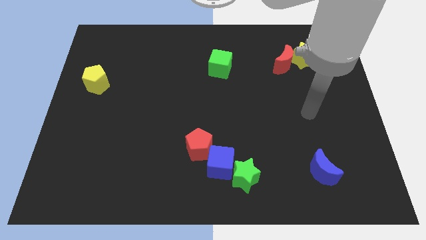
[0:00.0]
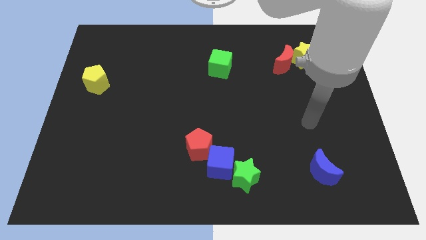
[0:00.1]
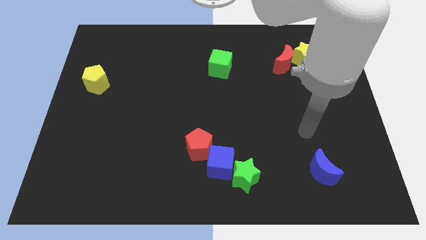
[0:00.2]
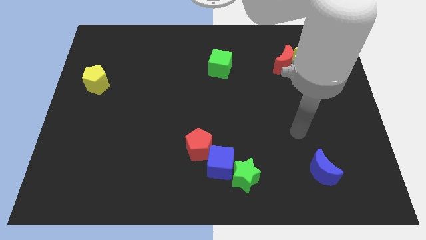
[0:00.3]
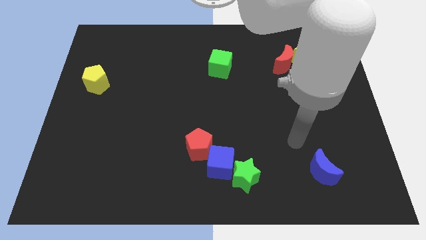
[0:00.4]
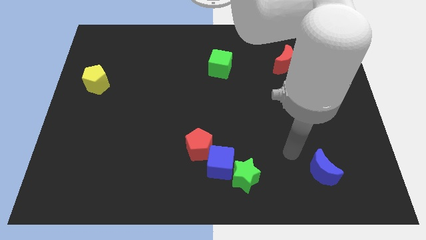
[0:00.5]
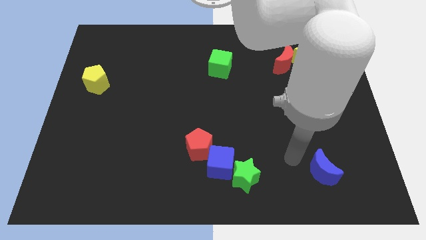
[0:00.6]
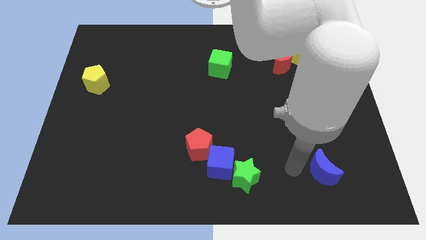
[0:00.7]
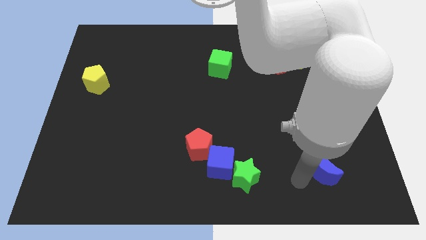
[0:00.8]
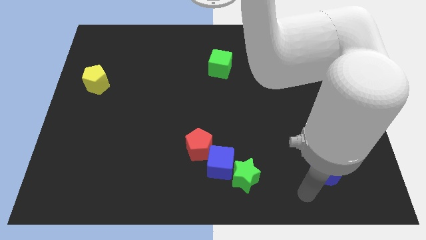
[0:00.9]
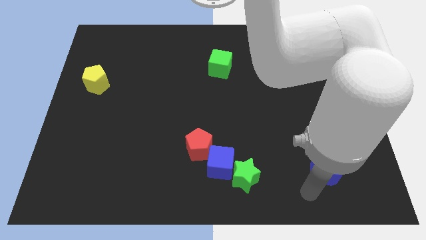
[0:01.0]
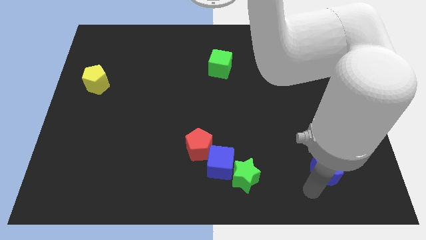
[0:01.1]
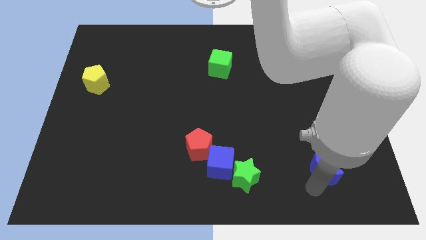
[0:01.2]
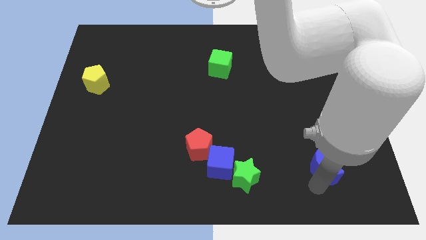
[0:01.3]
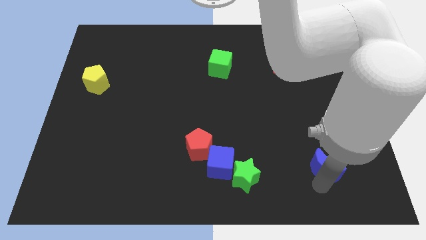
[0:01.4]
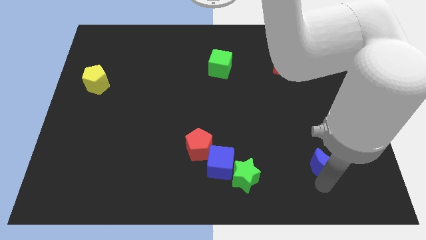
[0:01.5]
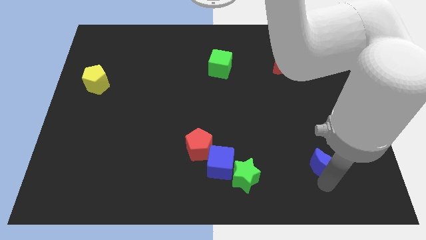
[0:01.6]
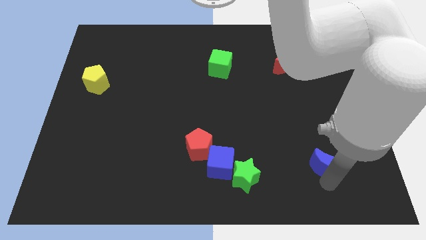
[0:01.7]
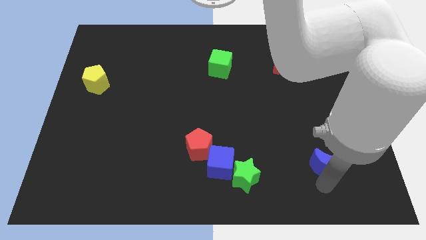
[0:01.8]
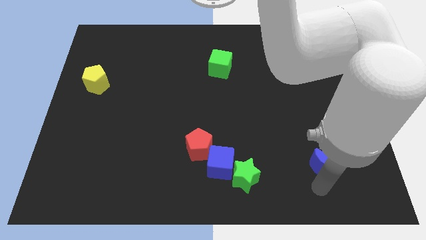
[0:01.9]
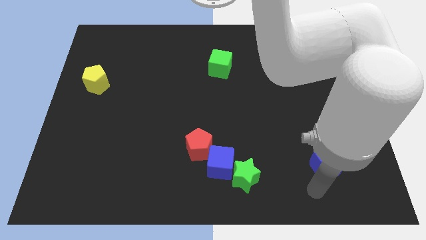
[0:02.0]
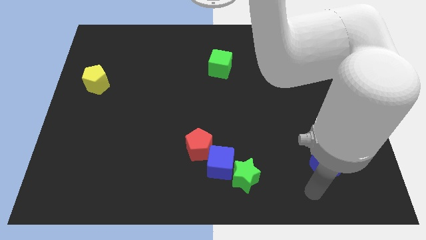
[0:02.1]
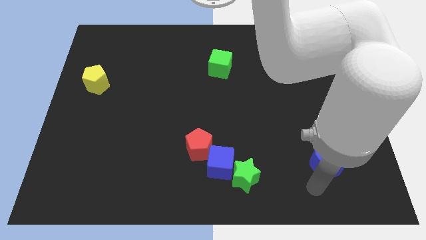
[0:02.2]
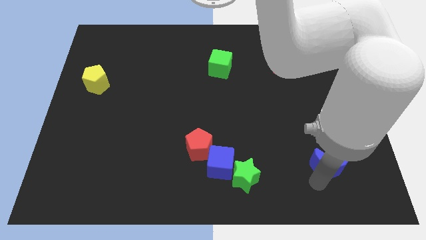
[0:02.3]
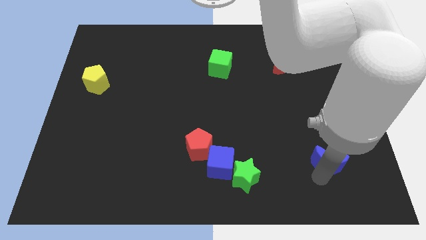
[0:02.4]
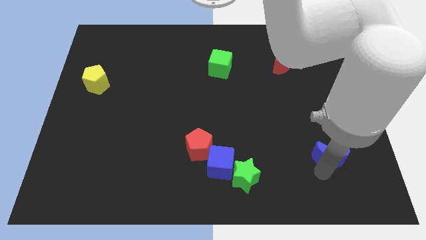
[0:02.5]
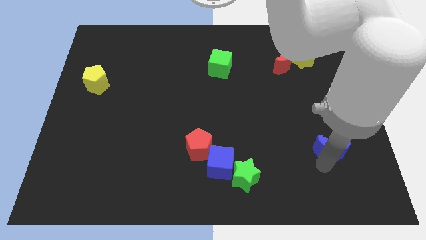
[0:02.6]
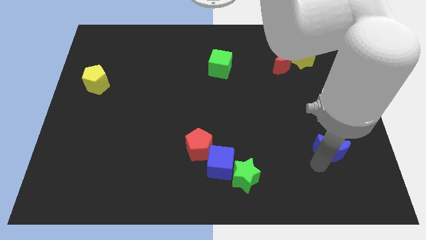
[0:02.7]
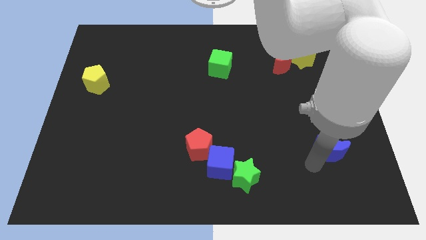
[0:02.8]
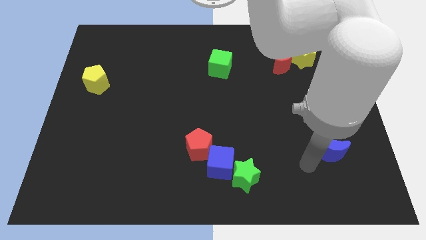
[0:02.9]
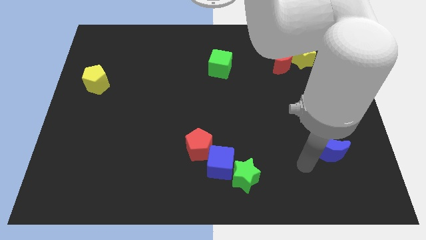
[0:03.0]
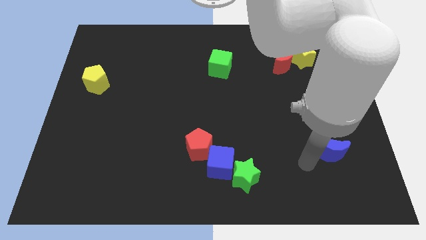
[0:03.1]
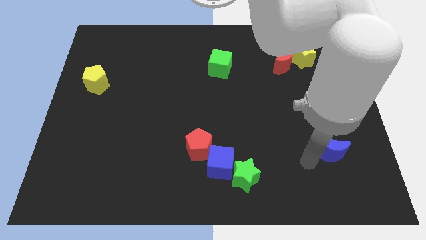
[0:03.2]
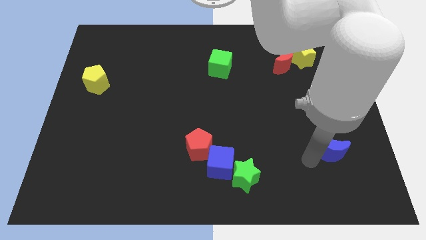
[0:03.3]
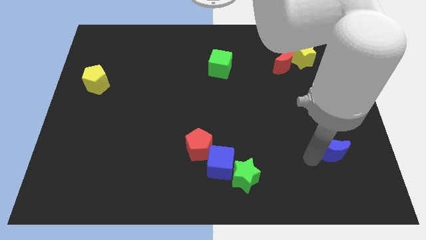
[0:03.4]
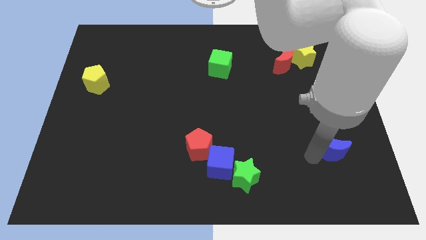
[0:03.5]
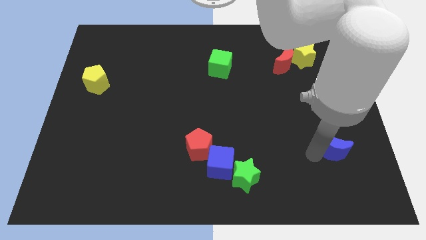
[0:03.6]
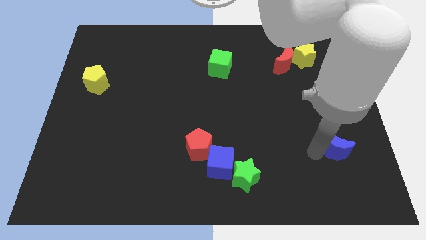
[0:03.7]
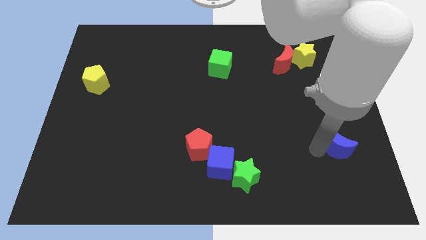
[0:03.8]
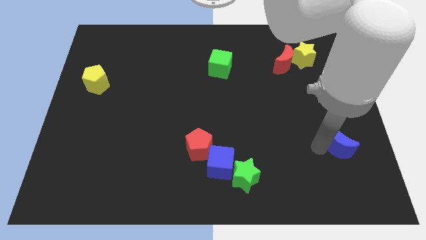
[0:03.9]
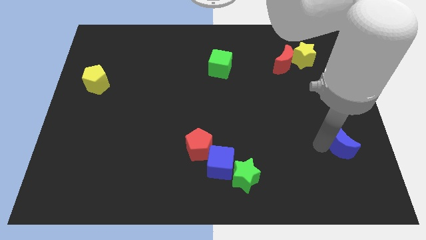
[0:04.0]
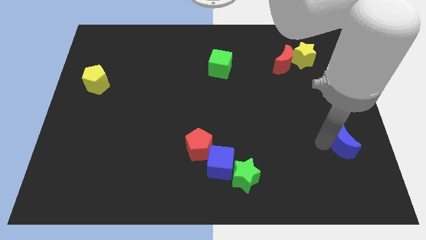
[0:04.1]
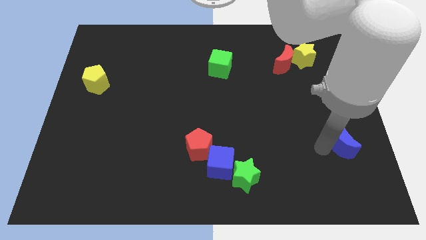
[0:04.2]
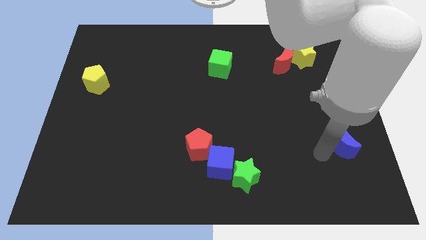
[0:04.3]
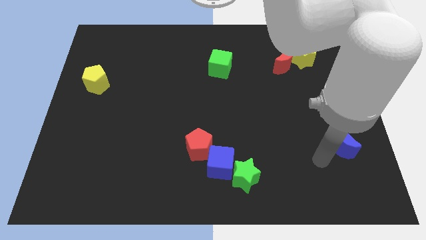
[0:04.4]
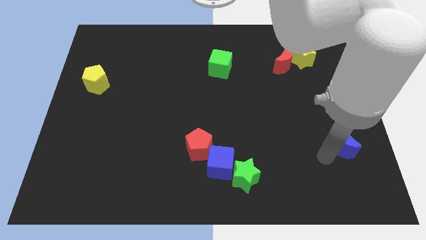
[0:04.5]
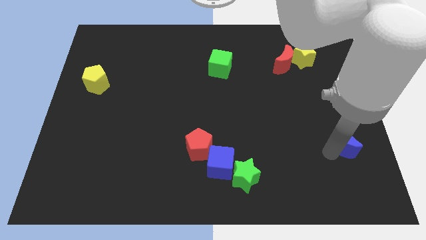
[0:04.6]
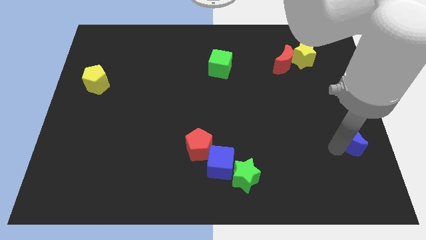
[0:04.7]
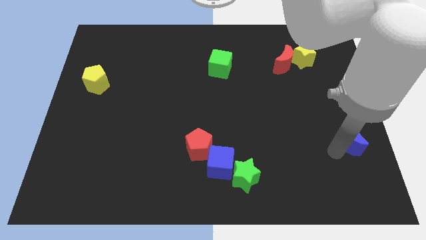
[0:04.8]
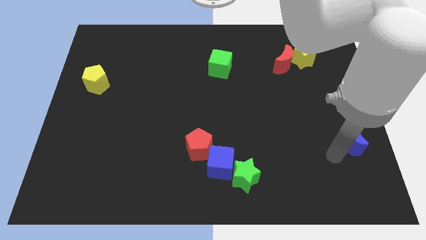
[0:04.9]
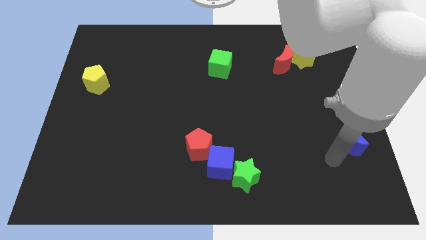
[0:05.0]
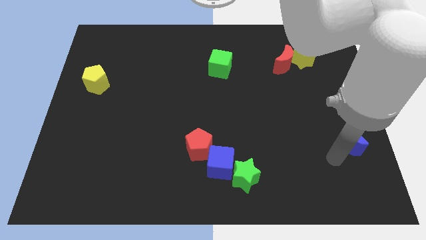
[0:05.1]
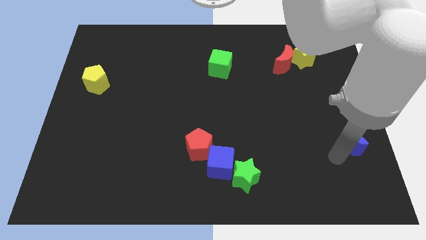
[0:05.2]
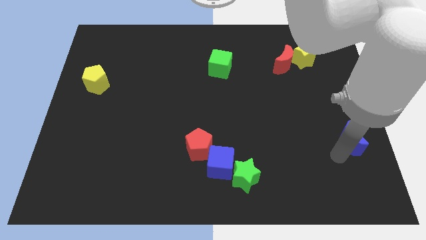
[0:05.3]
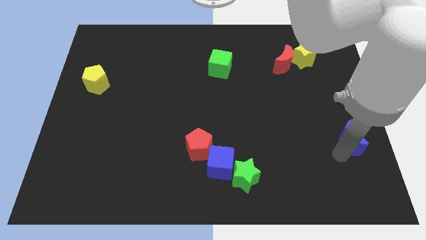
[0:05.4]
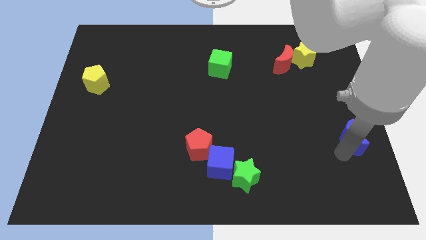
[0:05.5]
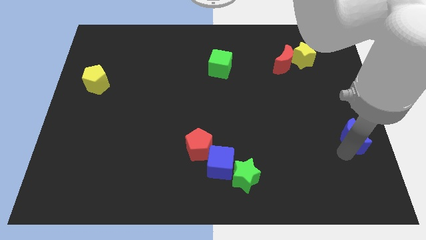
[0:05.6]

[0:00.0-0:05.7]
move the blue moon to the right side

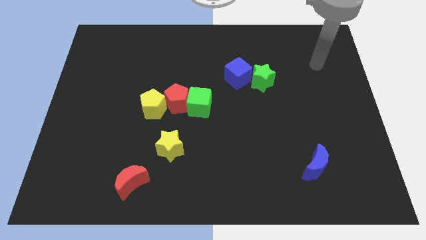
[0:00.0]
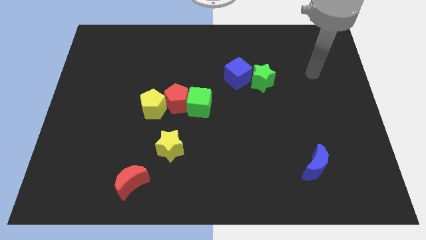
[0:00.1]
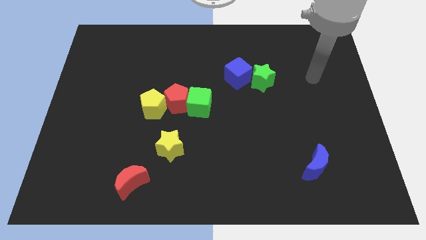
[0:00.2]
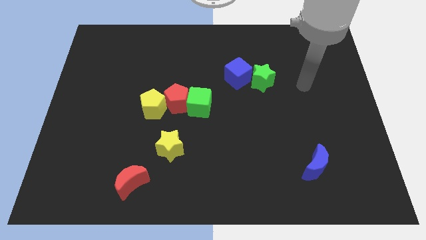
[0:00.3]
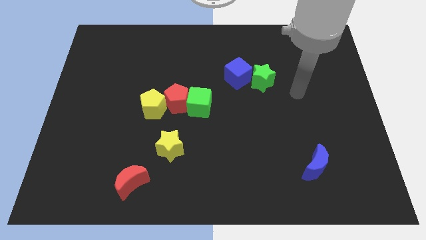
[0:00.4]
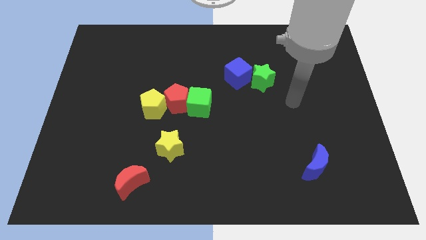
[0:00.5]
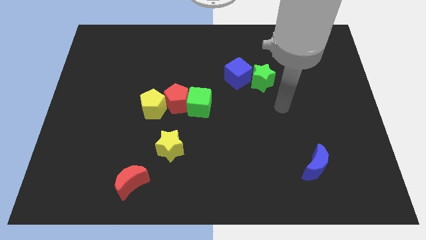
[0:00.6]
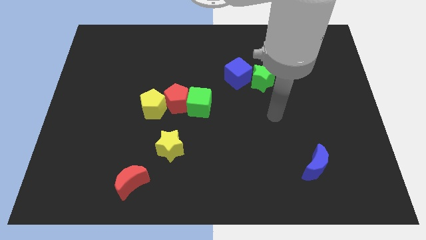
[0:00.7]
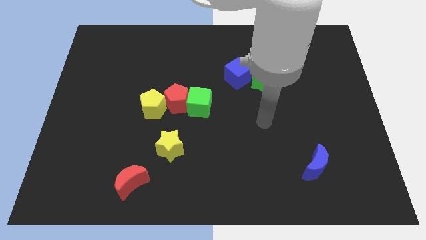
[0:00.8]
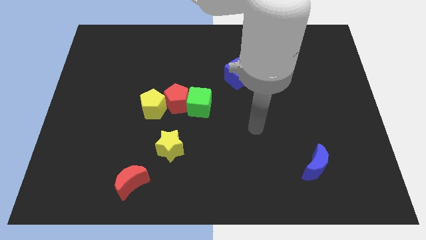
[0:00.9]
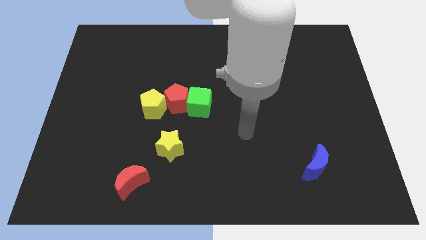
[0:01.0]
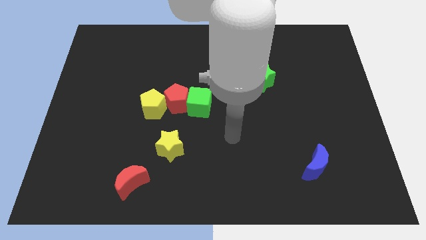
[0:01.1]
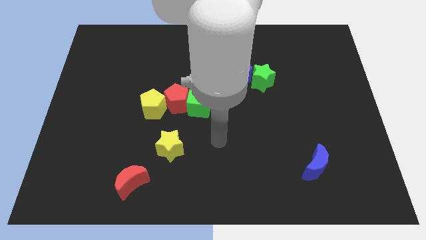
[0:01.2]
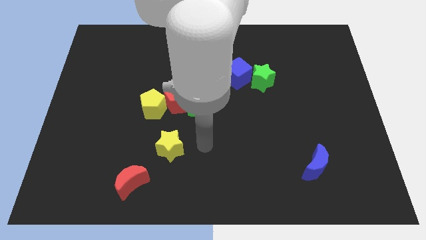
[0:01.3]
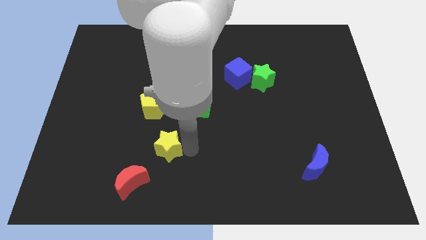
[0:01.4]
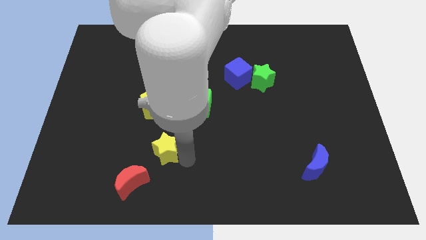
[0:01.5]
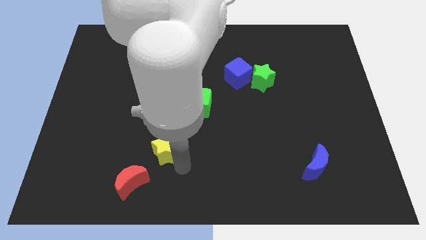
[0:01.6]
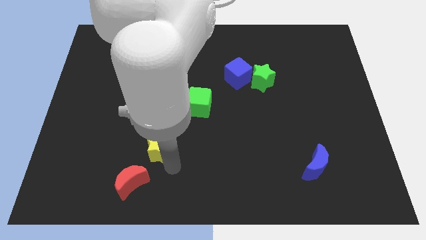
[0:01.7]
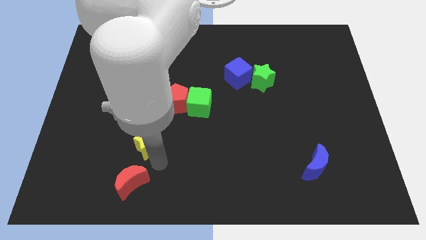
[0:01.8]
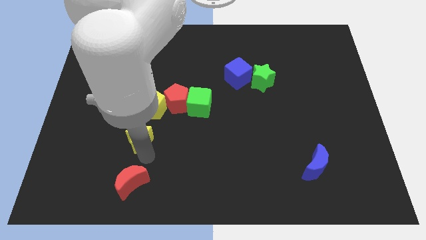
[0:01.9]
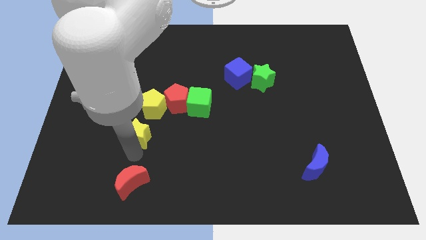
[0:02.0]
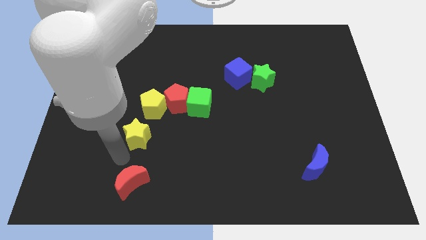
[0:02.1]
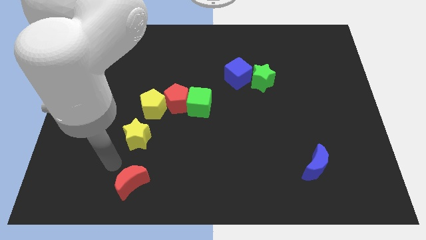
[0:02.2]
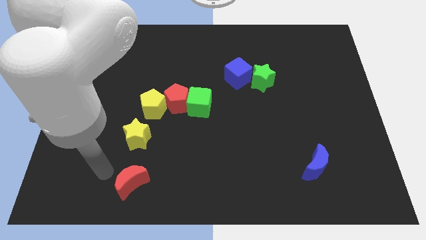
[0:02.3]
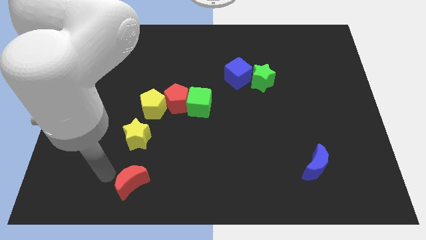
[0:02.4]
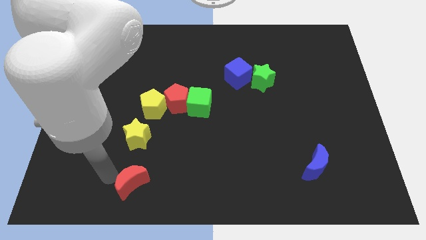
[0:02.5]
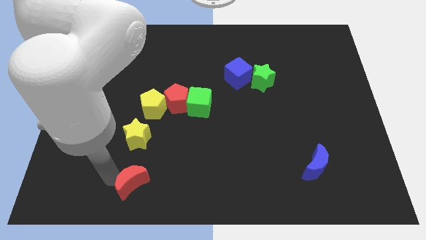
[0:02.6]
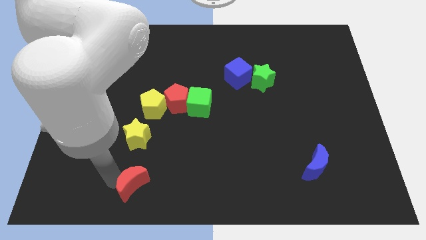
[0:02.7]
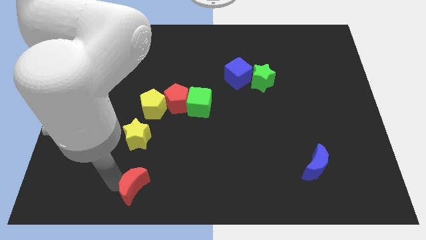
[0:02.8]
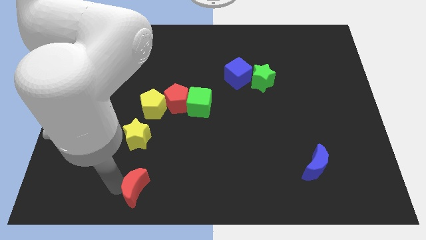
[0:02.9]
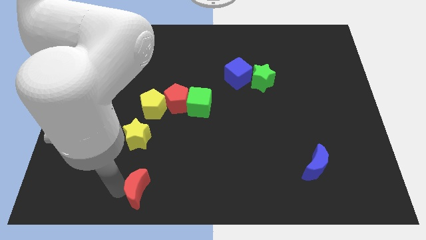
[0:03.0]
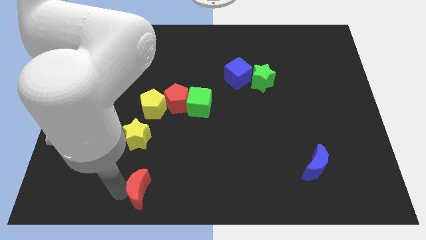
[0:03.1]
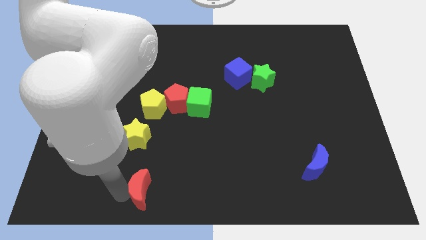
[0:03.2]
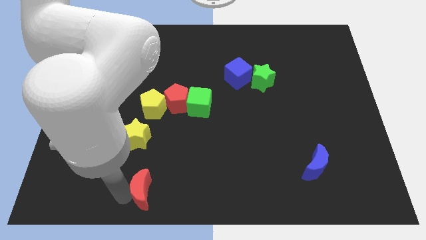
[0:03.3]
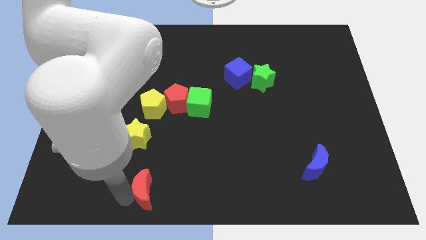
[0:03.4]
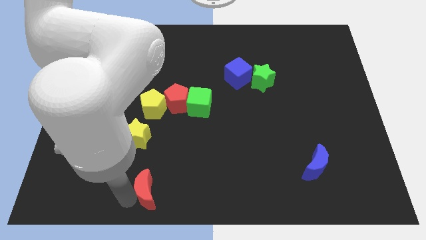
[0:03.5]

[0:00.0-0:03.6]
put the red moon to the bottom
